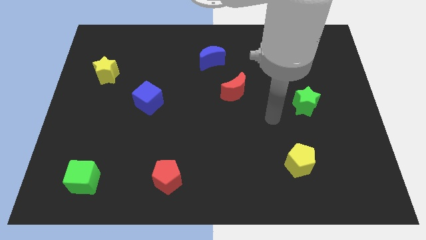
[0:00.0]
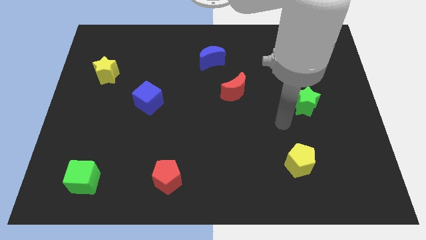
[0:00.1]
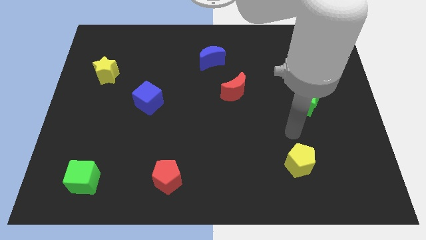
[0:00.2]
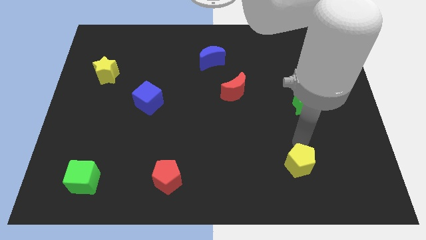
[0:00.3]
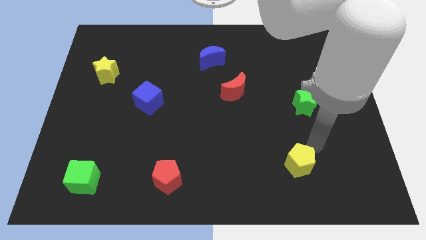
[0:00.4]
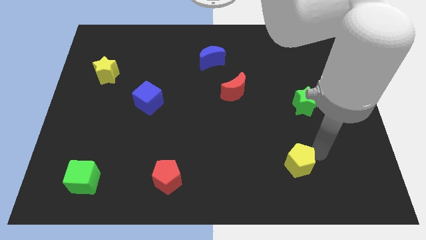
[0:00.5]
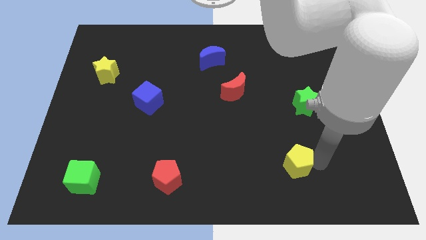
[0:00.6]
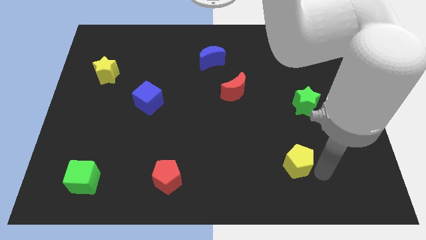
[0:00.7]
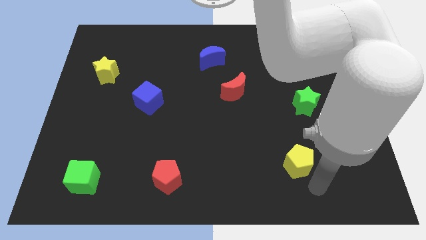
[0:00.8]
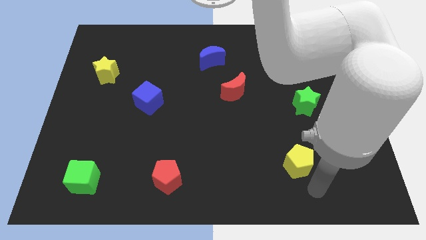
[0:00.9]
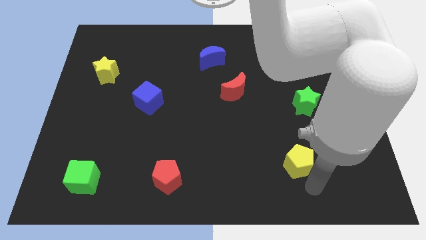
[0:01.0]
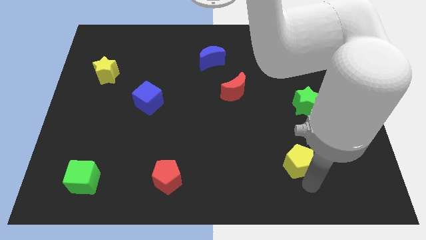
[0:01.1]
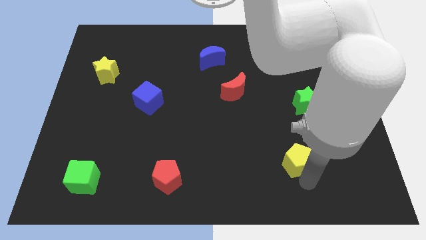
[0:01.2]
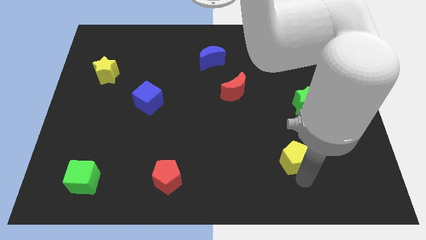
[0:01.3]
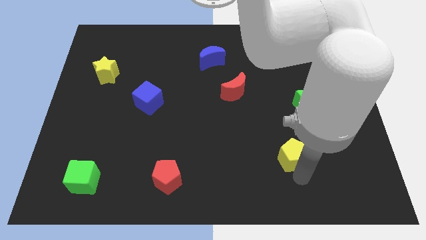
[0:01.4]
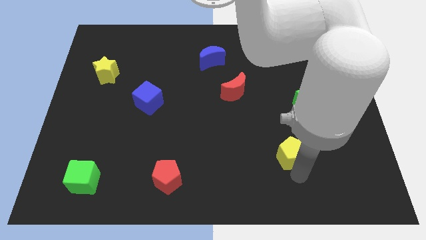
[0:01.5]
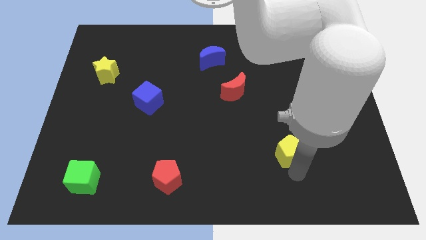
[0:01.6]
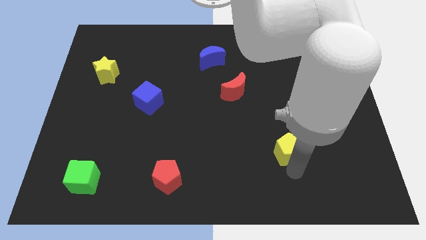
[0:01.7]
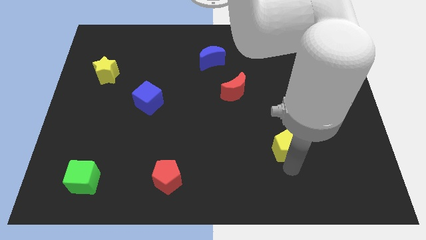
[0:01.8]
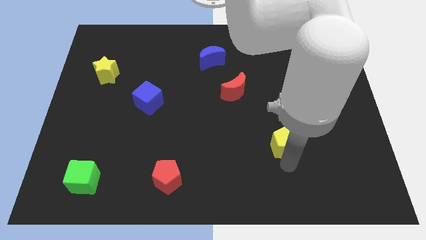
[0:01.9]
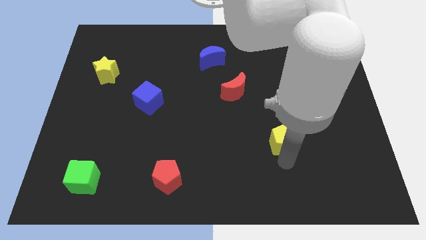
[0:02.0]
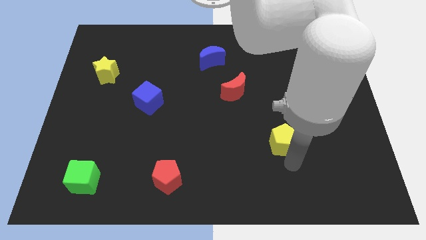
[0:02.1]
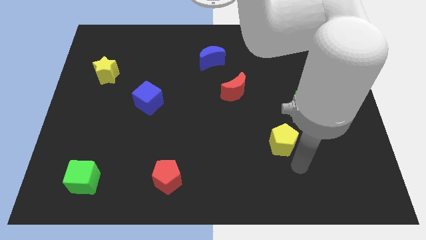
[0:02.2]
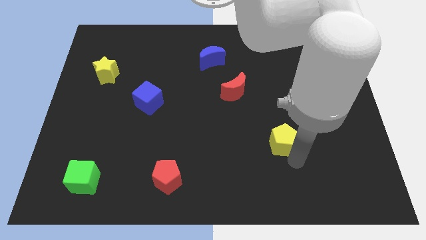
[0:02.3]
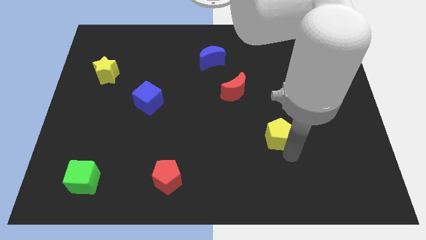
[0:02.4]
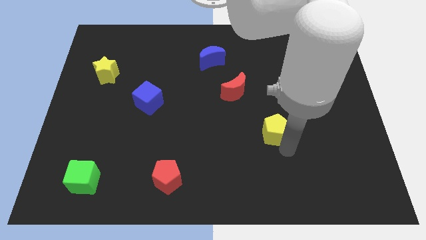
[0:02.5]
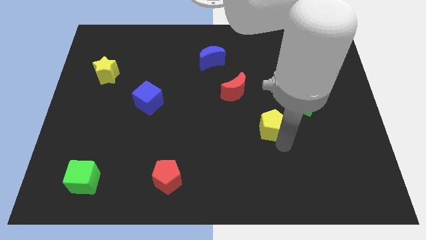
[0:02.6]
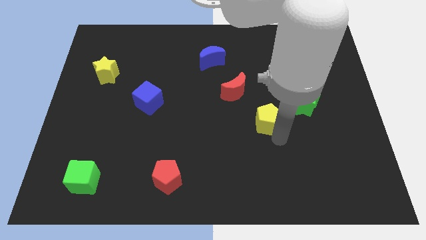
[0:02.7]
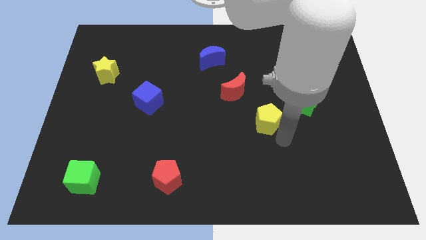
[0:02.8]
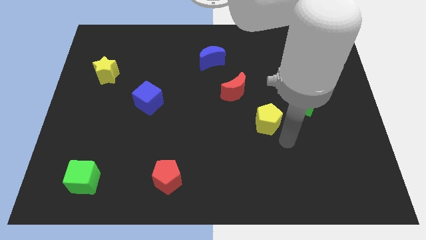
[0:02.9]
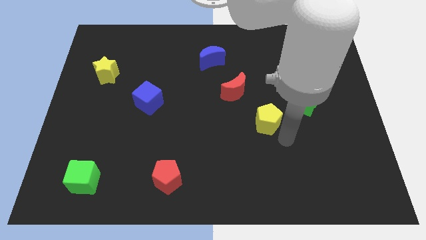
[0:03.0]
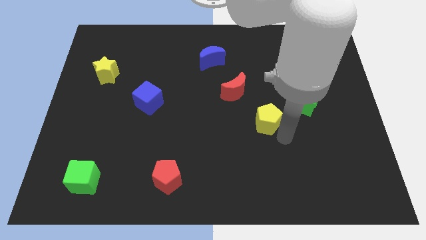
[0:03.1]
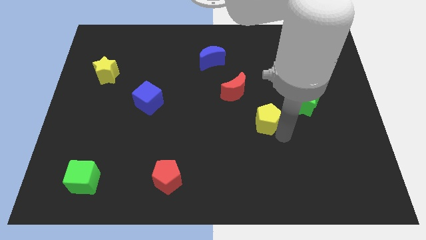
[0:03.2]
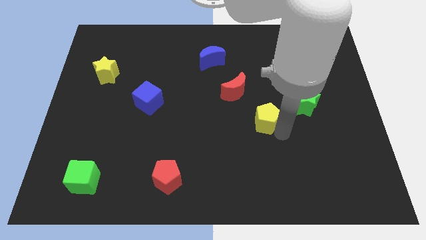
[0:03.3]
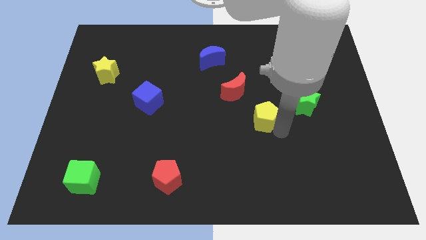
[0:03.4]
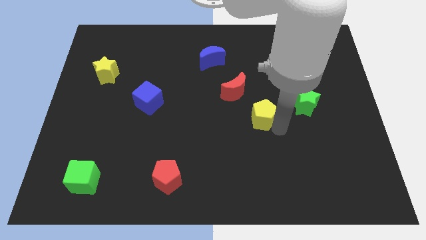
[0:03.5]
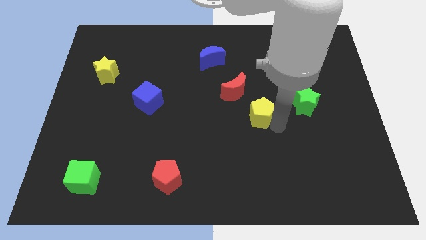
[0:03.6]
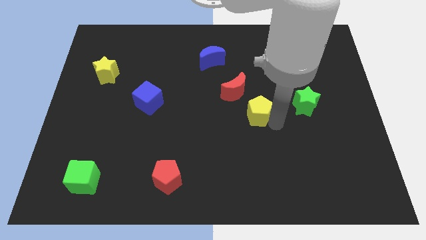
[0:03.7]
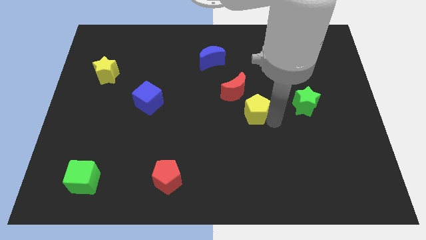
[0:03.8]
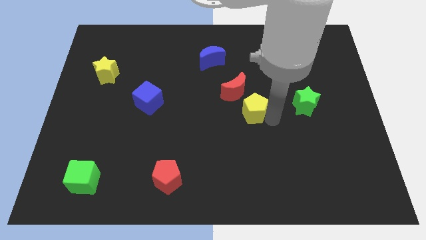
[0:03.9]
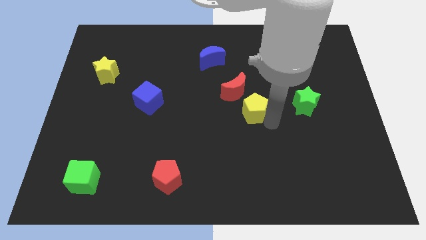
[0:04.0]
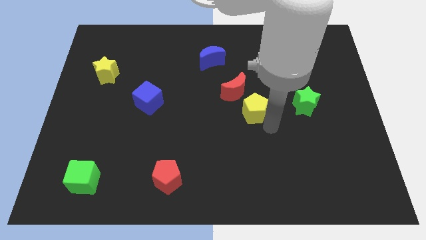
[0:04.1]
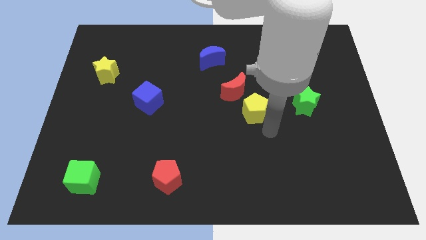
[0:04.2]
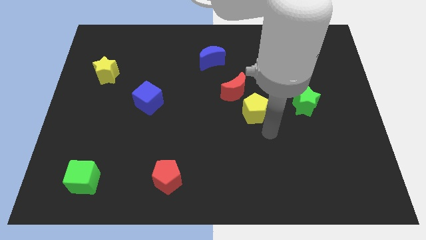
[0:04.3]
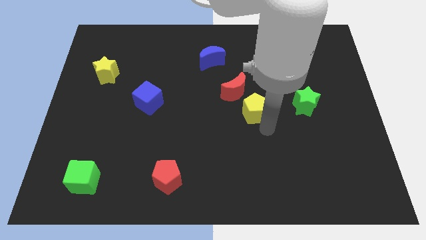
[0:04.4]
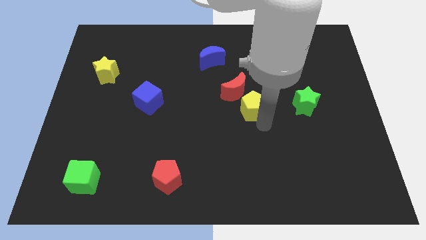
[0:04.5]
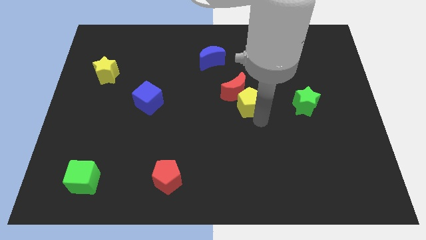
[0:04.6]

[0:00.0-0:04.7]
move the yellow pentagon towards the red moon

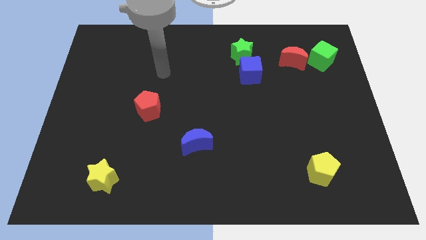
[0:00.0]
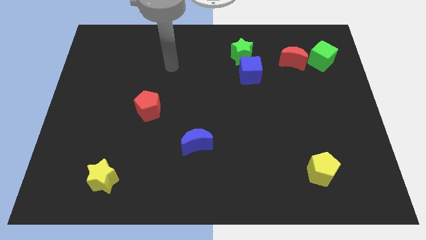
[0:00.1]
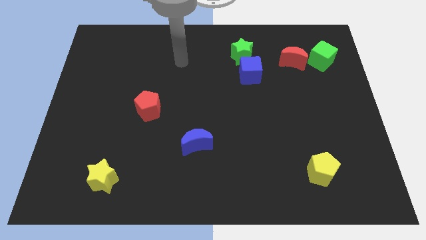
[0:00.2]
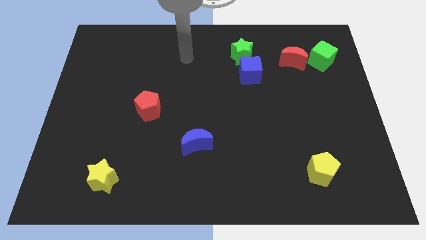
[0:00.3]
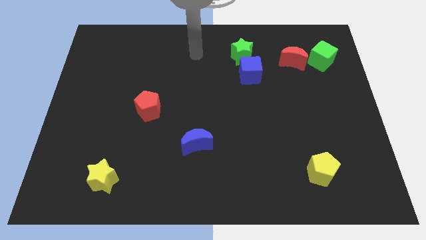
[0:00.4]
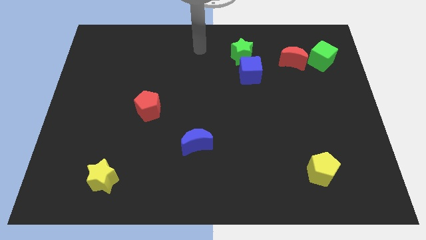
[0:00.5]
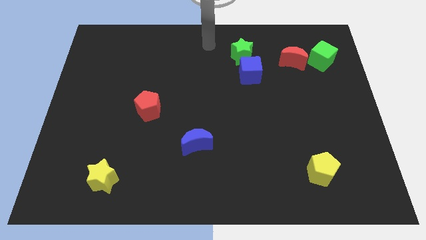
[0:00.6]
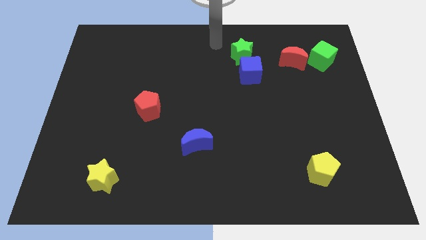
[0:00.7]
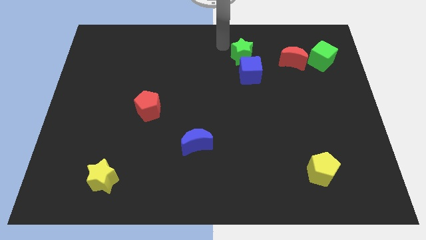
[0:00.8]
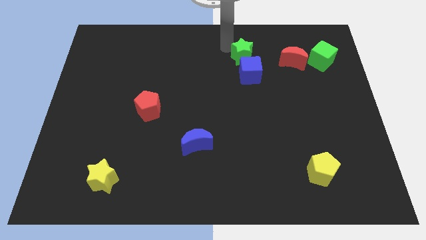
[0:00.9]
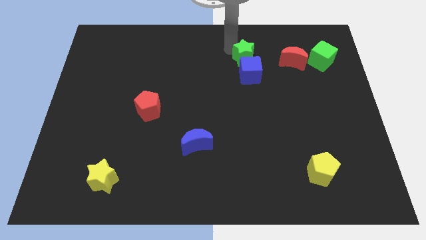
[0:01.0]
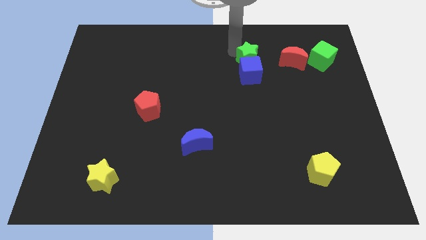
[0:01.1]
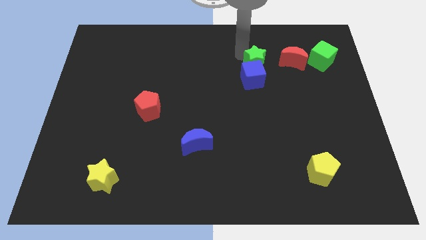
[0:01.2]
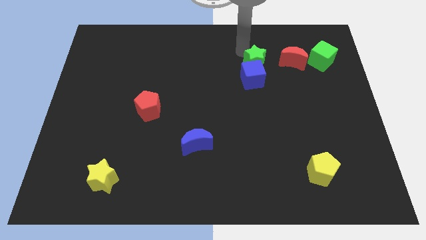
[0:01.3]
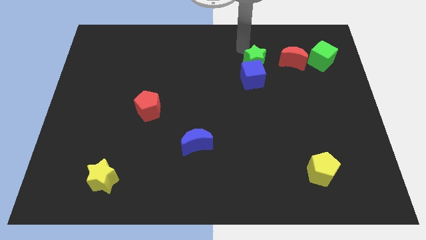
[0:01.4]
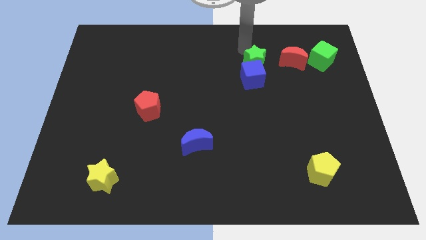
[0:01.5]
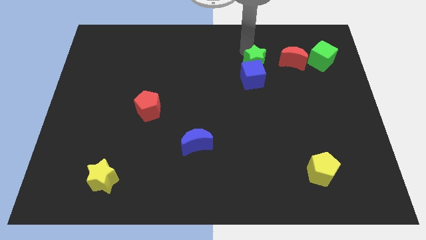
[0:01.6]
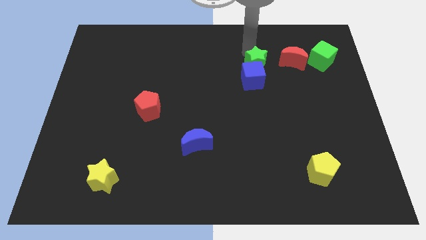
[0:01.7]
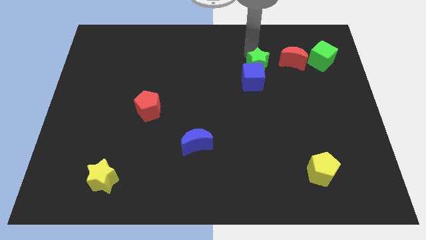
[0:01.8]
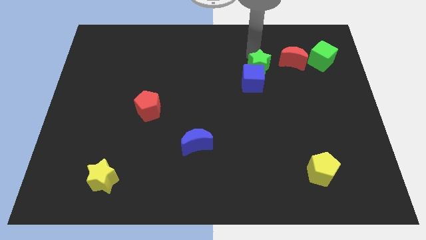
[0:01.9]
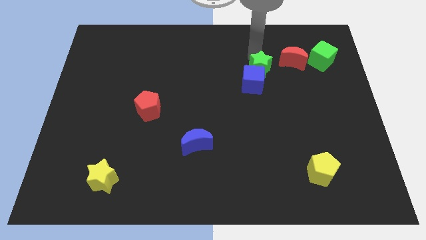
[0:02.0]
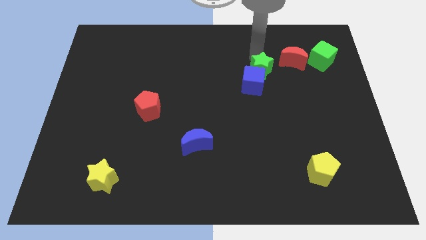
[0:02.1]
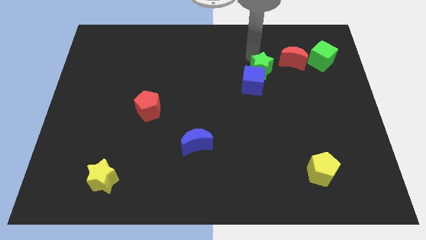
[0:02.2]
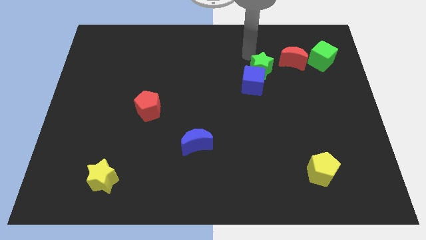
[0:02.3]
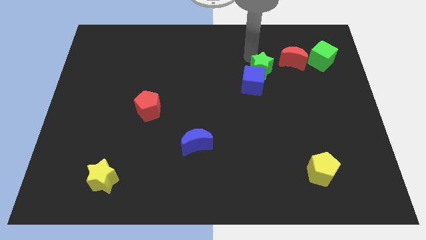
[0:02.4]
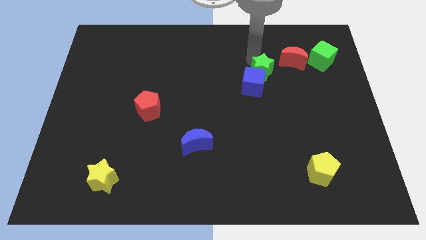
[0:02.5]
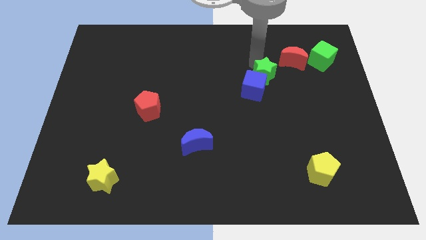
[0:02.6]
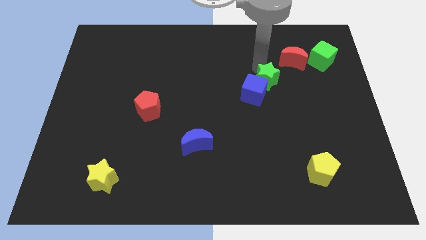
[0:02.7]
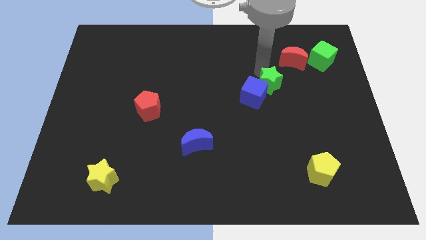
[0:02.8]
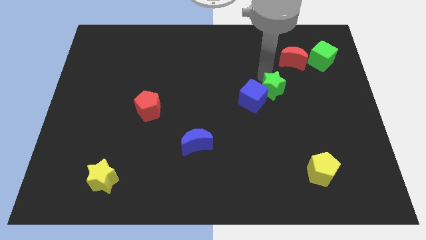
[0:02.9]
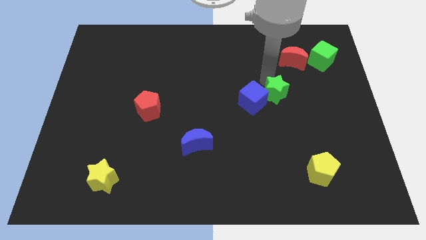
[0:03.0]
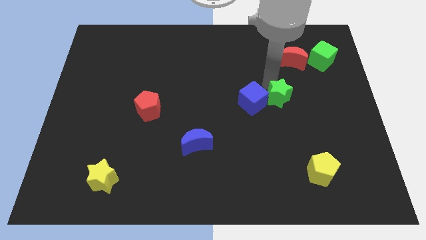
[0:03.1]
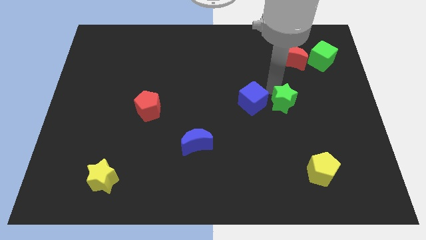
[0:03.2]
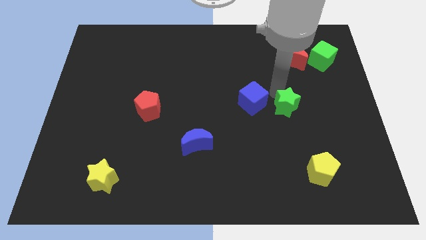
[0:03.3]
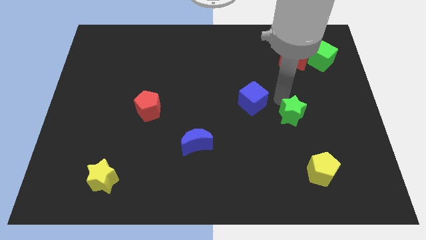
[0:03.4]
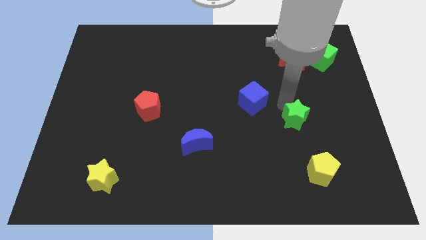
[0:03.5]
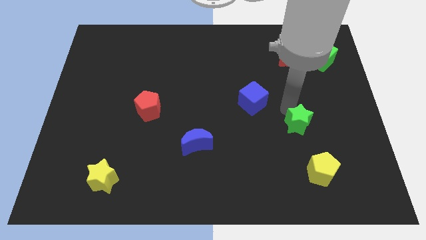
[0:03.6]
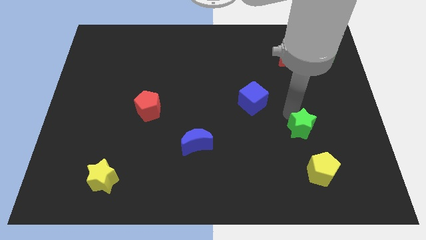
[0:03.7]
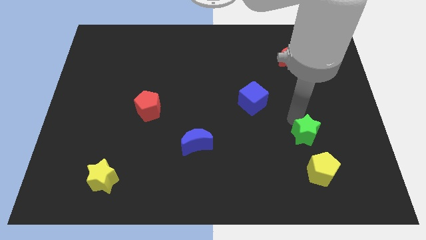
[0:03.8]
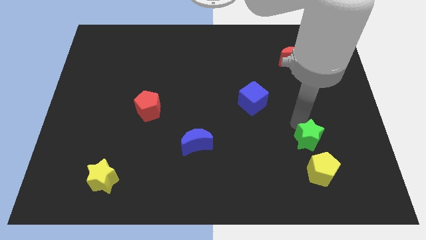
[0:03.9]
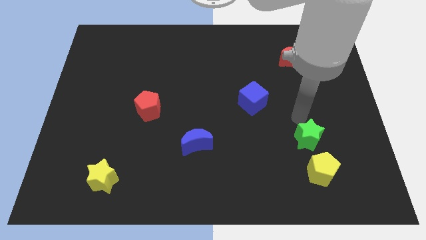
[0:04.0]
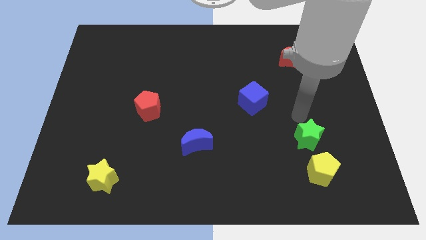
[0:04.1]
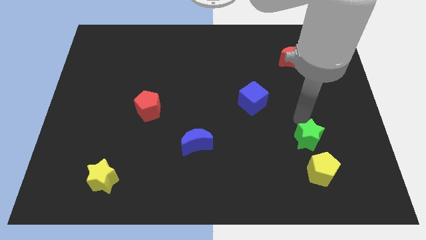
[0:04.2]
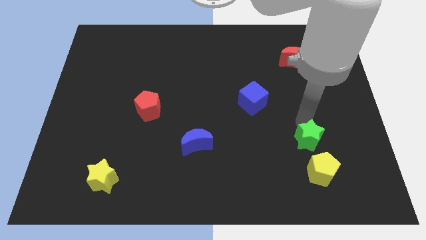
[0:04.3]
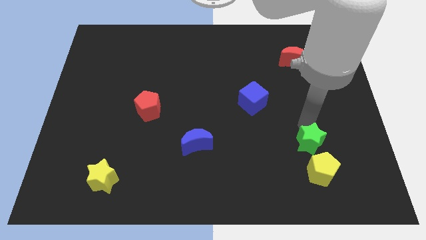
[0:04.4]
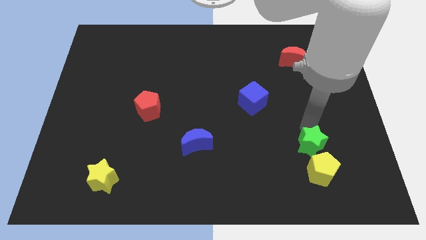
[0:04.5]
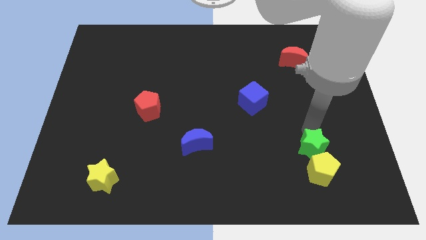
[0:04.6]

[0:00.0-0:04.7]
push the green star to the yellow pentagon
